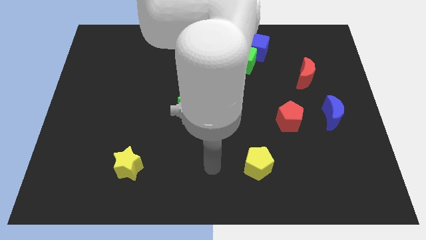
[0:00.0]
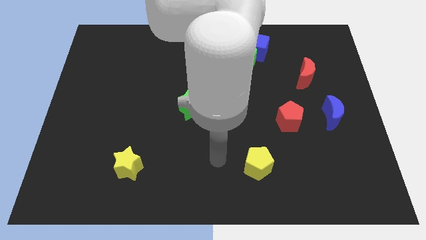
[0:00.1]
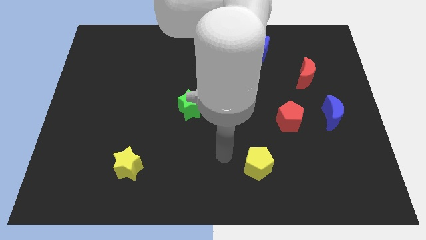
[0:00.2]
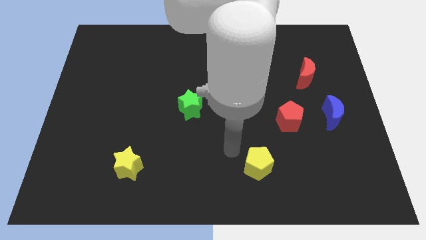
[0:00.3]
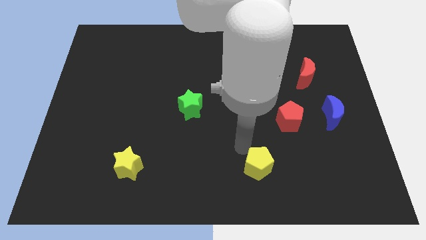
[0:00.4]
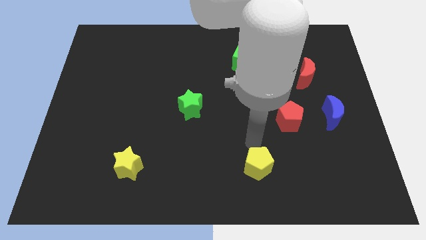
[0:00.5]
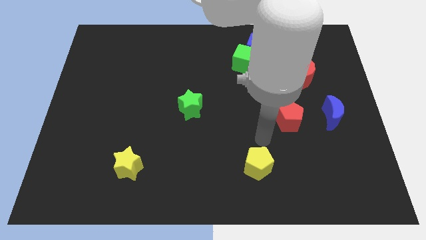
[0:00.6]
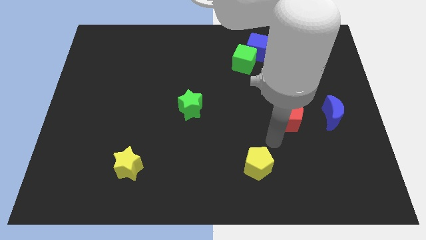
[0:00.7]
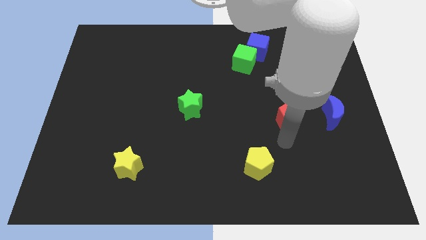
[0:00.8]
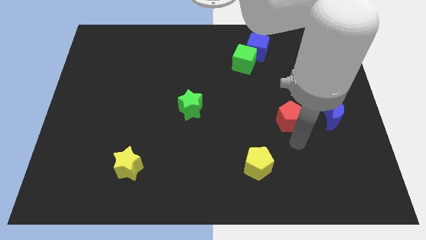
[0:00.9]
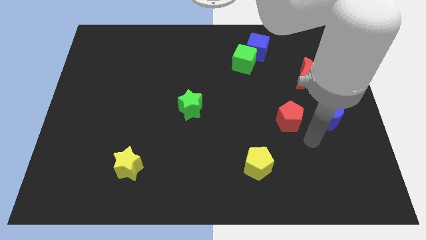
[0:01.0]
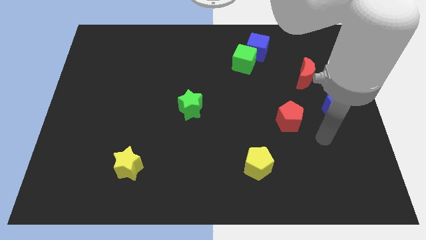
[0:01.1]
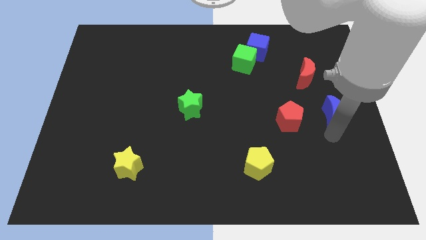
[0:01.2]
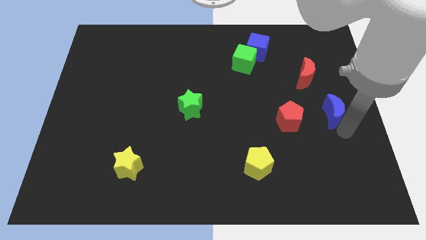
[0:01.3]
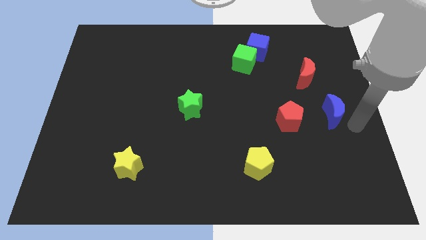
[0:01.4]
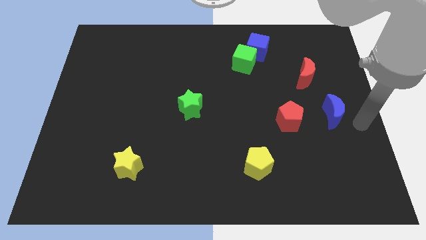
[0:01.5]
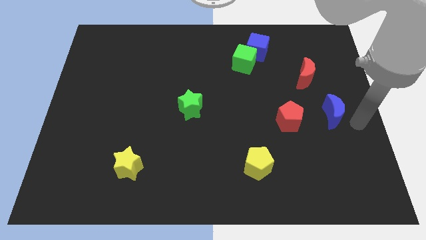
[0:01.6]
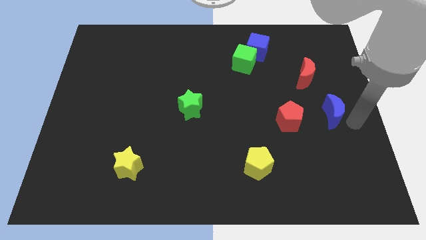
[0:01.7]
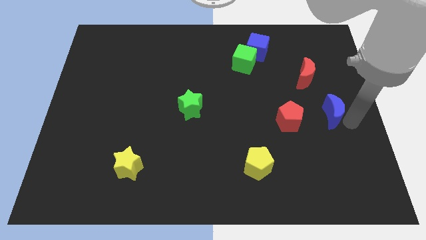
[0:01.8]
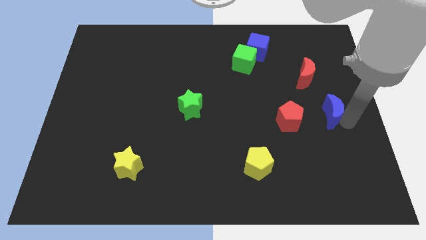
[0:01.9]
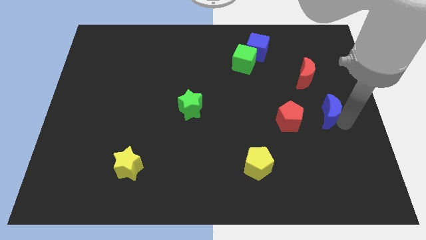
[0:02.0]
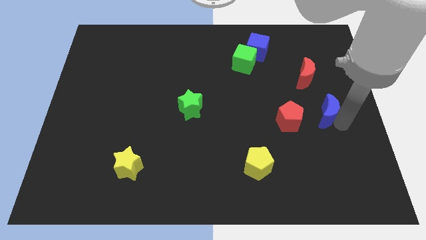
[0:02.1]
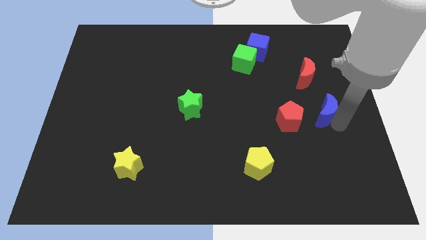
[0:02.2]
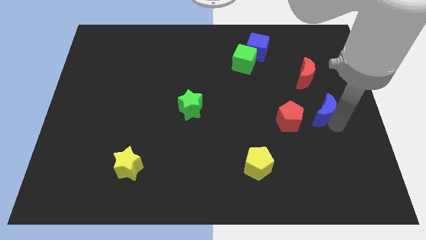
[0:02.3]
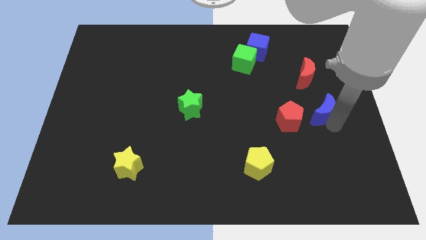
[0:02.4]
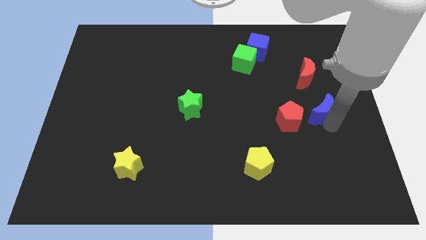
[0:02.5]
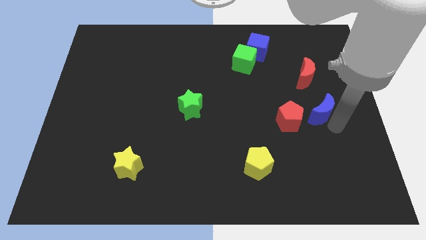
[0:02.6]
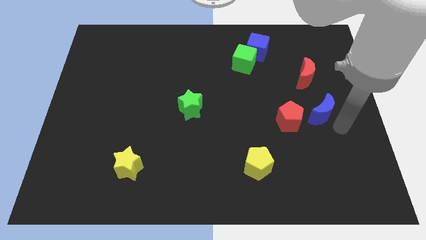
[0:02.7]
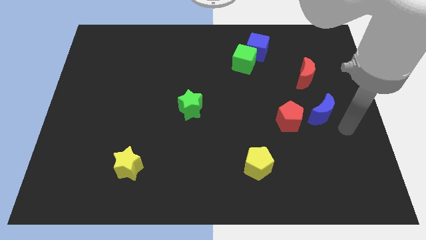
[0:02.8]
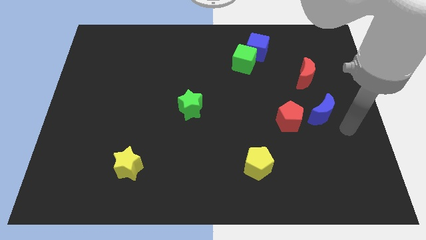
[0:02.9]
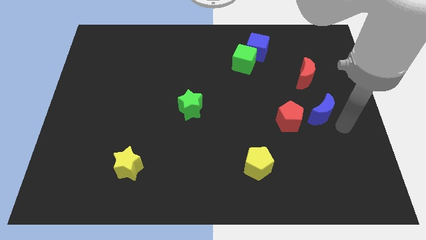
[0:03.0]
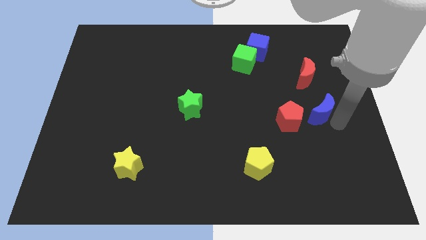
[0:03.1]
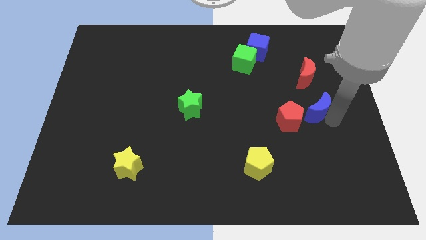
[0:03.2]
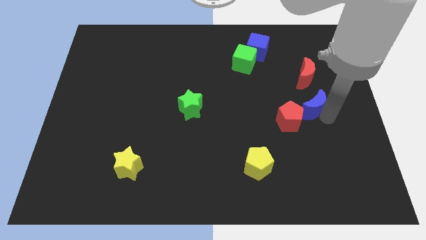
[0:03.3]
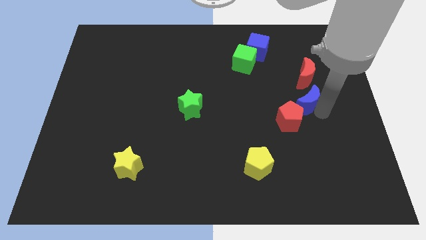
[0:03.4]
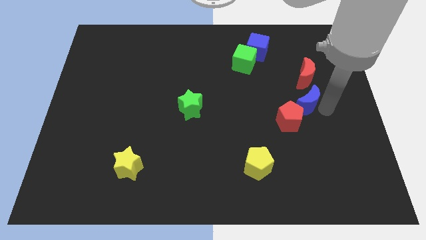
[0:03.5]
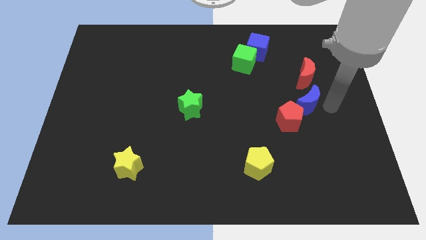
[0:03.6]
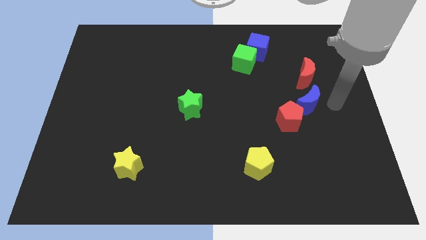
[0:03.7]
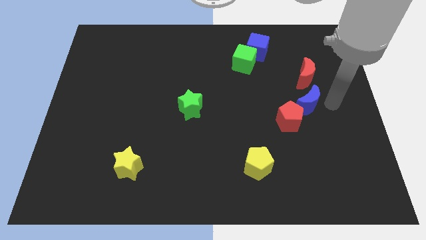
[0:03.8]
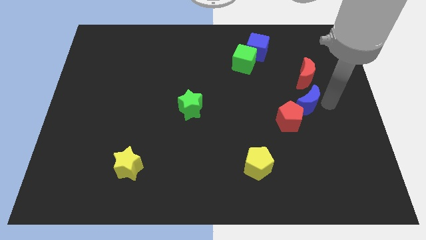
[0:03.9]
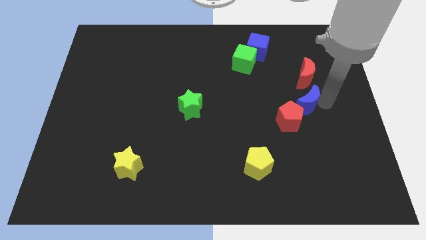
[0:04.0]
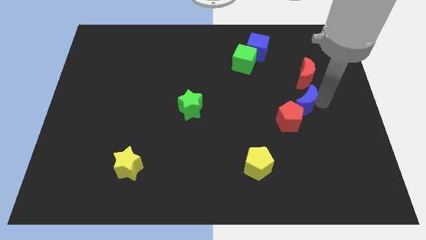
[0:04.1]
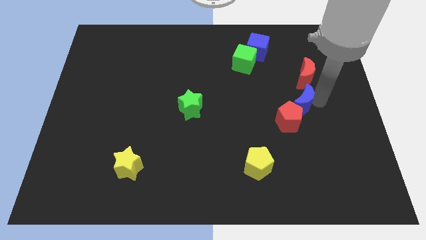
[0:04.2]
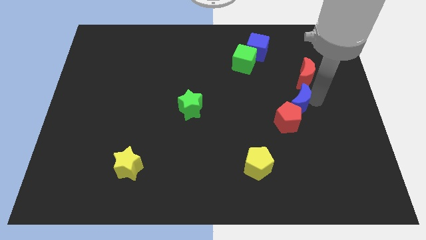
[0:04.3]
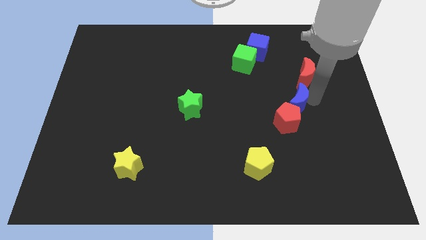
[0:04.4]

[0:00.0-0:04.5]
push the blue moon a little bit left

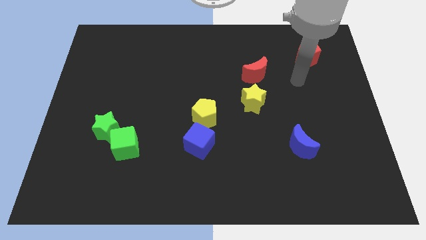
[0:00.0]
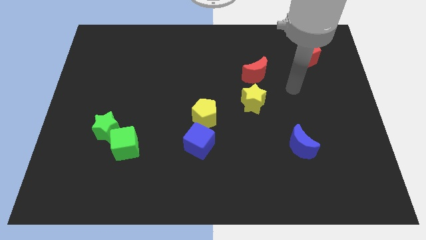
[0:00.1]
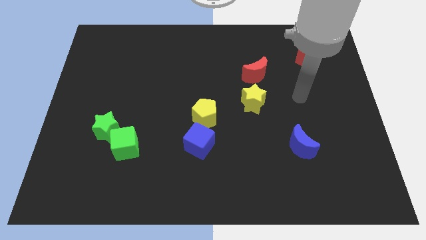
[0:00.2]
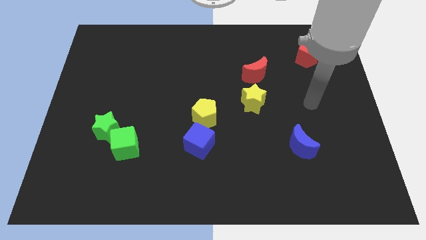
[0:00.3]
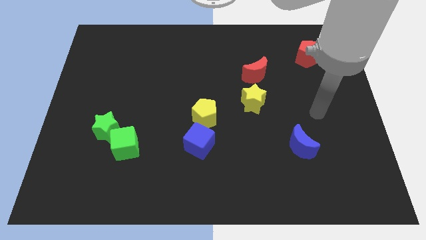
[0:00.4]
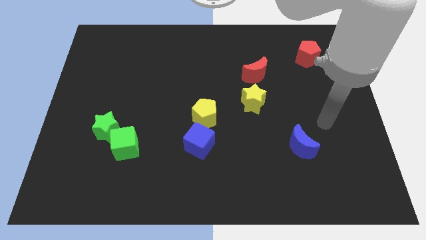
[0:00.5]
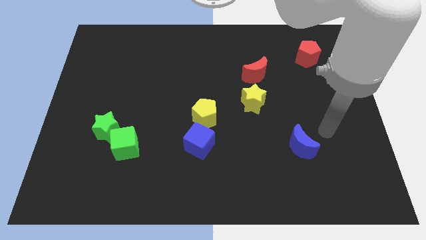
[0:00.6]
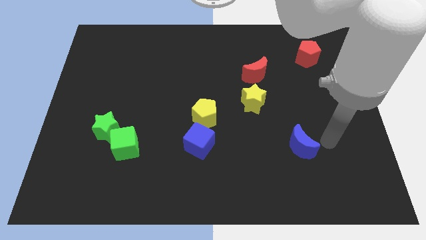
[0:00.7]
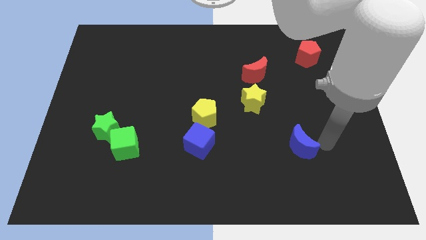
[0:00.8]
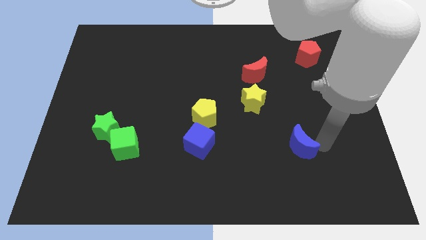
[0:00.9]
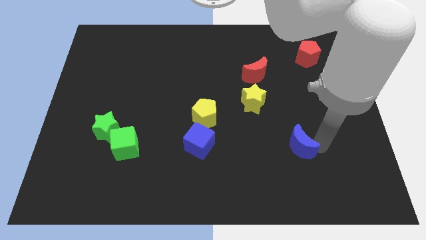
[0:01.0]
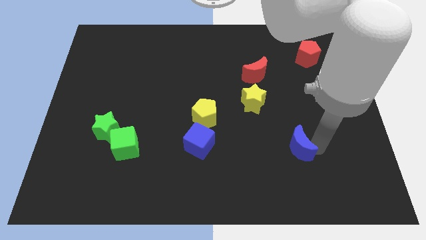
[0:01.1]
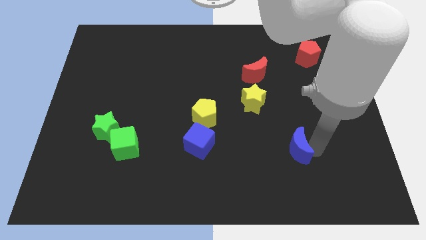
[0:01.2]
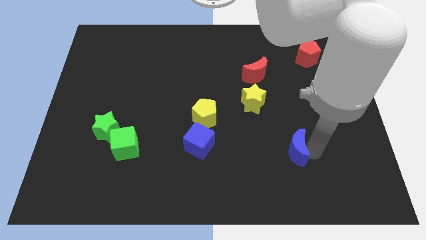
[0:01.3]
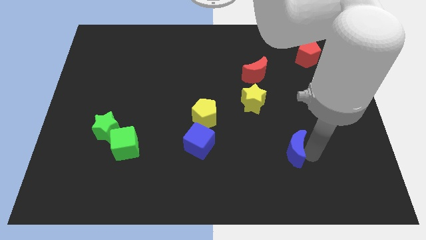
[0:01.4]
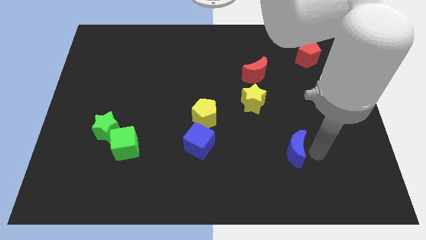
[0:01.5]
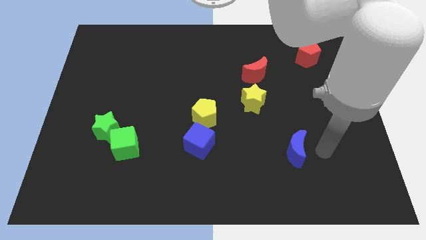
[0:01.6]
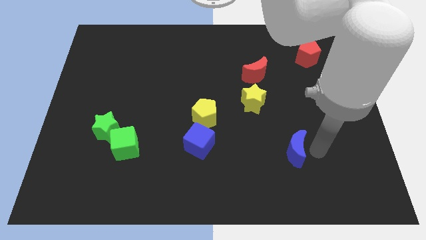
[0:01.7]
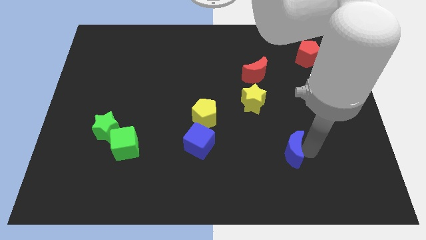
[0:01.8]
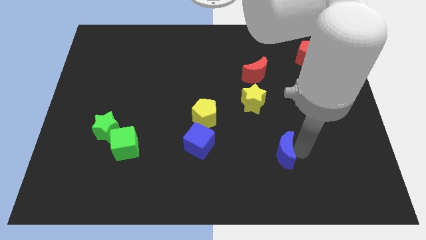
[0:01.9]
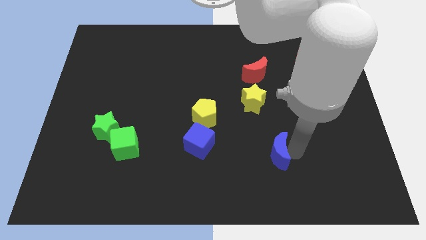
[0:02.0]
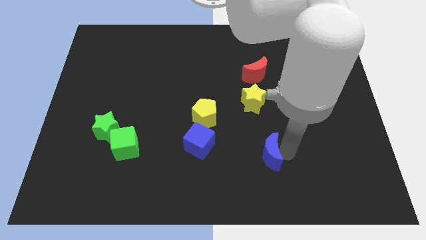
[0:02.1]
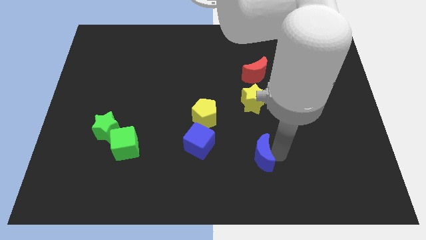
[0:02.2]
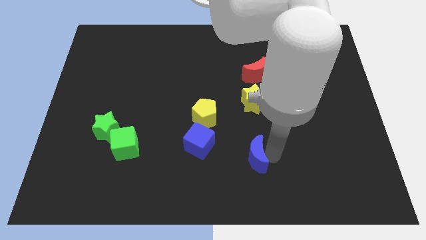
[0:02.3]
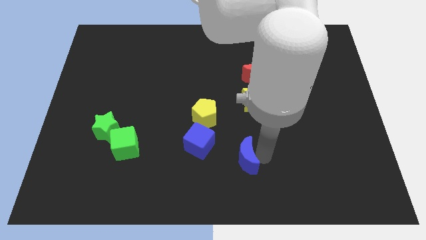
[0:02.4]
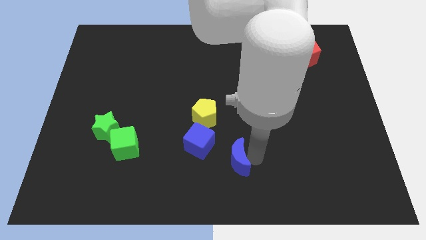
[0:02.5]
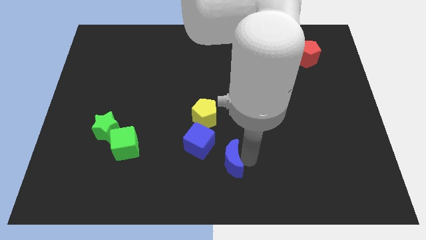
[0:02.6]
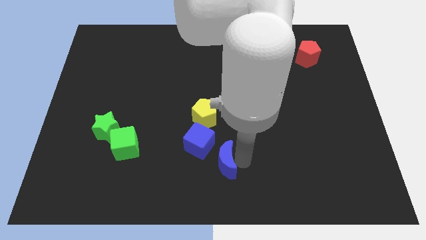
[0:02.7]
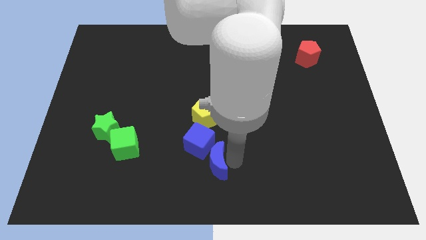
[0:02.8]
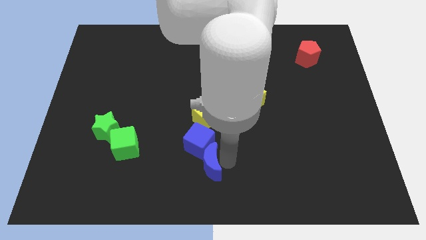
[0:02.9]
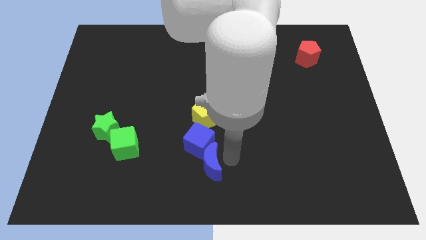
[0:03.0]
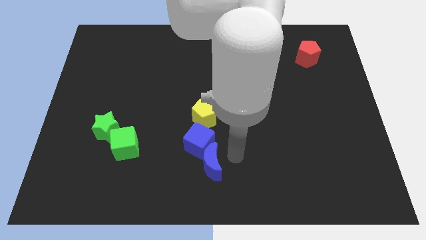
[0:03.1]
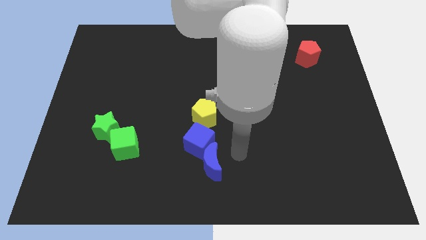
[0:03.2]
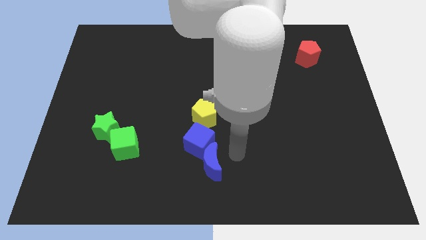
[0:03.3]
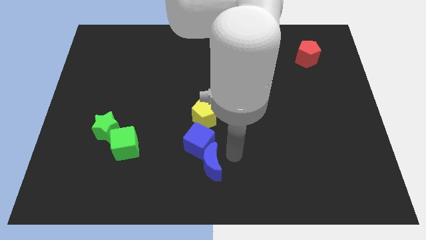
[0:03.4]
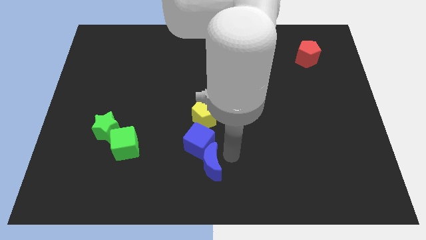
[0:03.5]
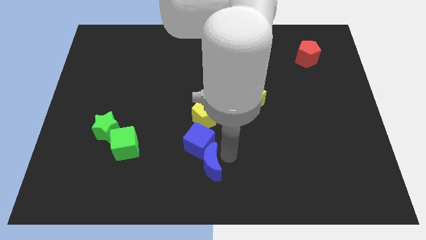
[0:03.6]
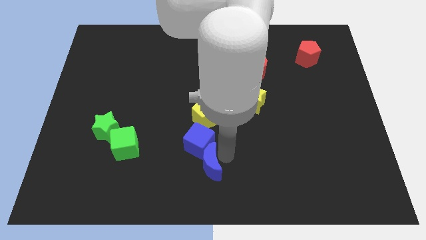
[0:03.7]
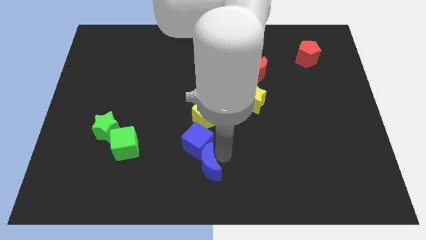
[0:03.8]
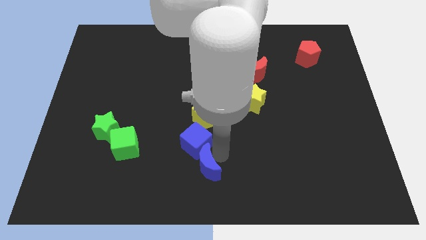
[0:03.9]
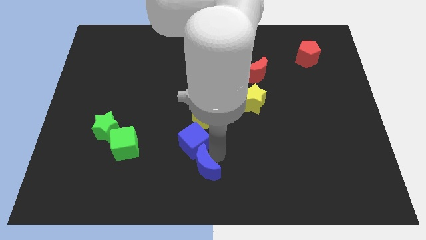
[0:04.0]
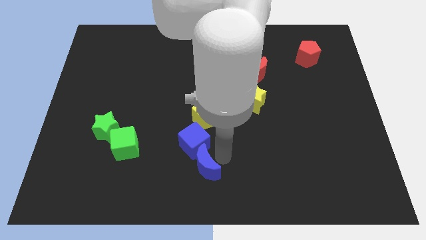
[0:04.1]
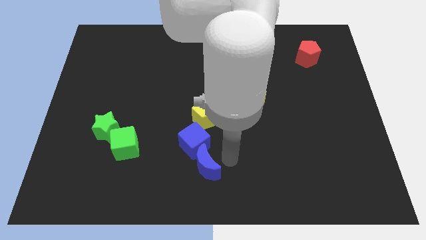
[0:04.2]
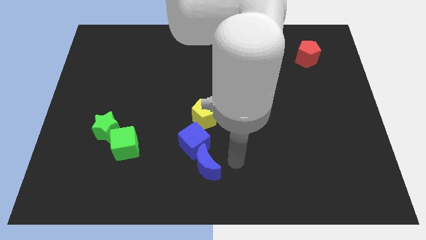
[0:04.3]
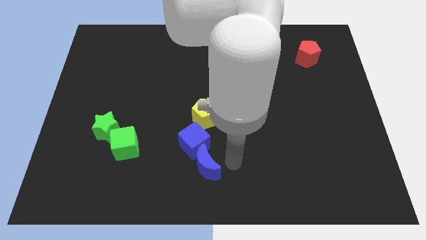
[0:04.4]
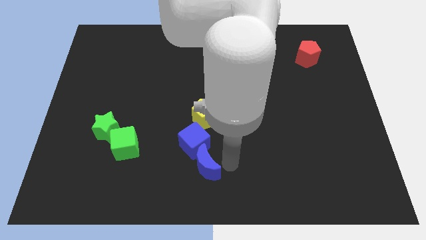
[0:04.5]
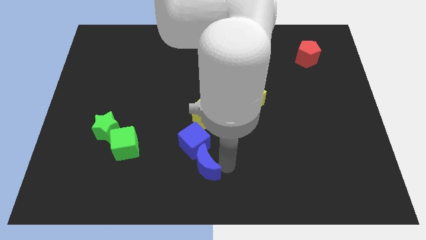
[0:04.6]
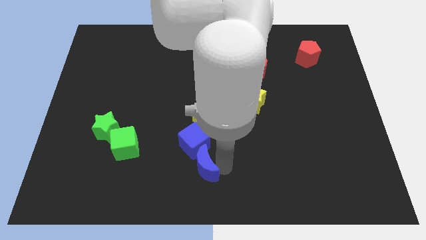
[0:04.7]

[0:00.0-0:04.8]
push the blue moon left
